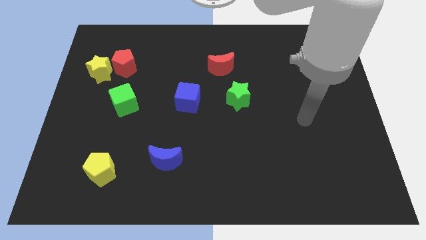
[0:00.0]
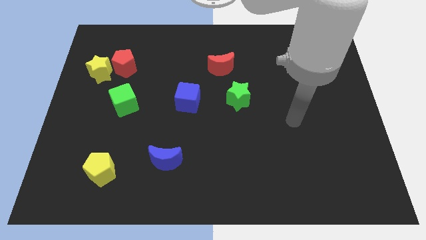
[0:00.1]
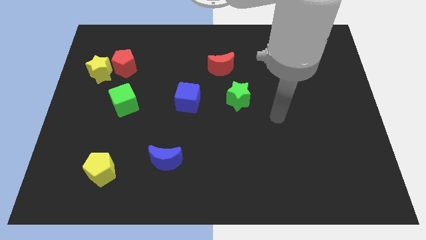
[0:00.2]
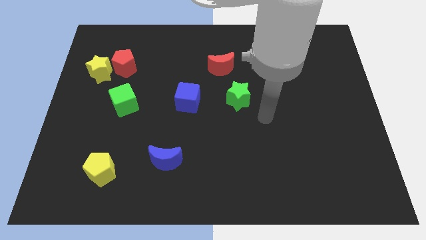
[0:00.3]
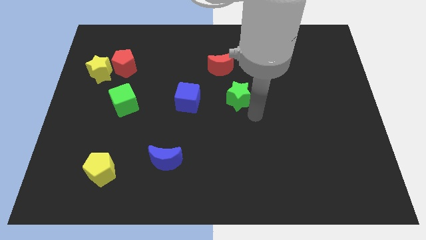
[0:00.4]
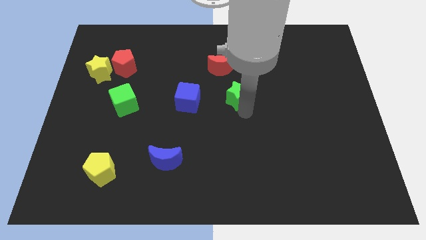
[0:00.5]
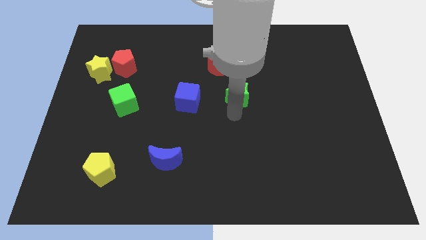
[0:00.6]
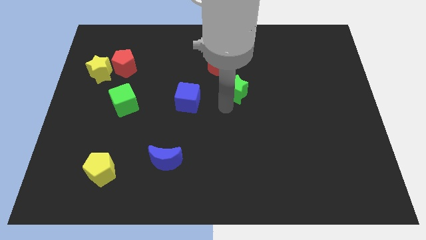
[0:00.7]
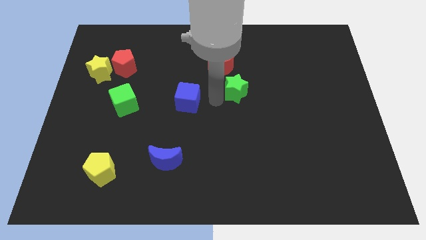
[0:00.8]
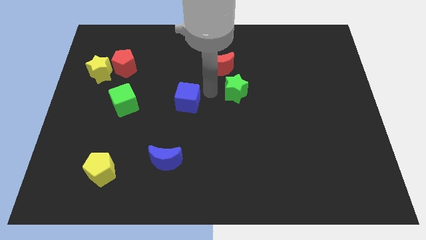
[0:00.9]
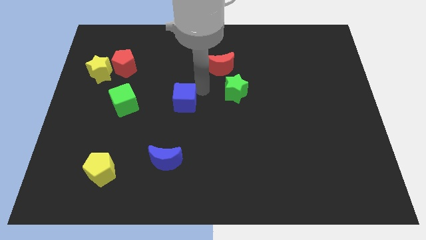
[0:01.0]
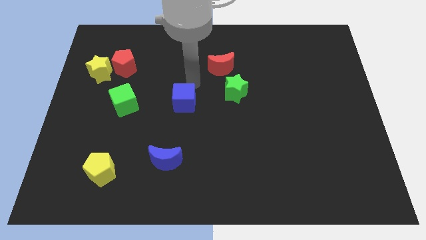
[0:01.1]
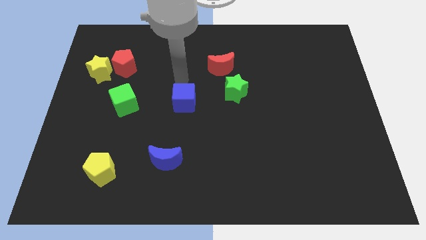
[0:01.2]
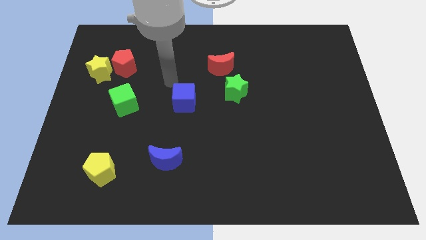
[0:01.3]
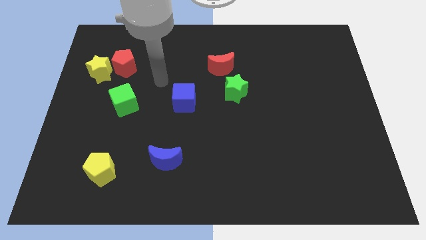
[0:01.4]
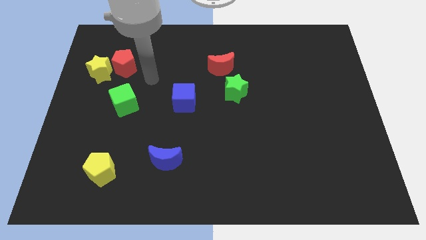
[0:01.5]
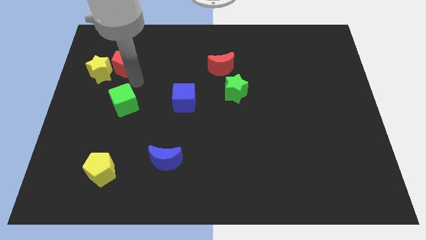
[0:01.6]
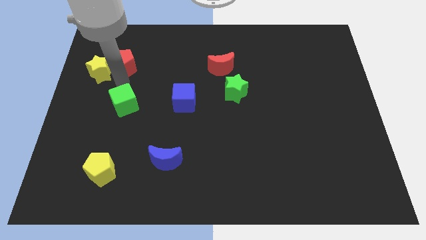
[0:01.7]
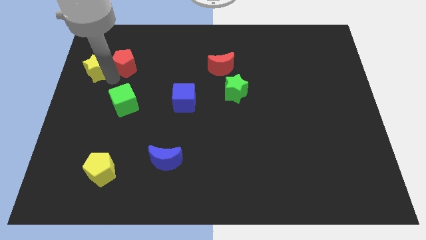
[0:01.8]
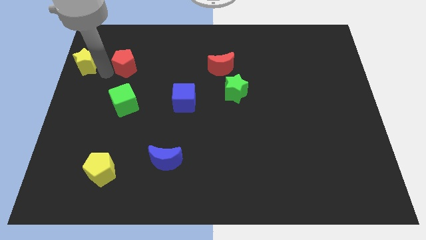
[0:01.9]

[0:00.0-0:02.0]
pull the red pentagon apart from the yellow star

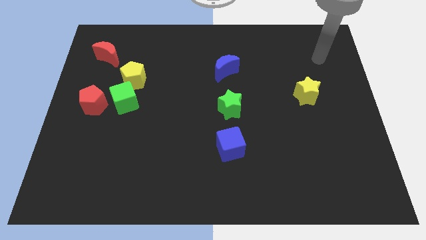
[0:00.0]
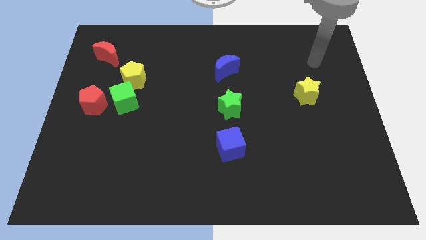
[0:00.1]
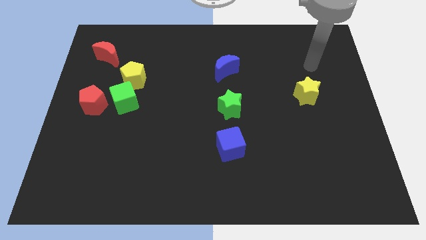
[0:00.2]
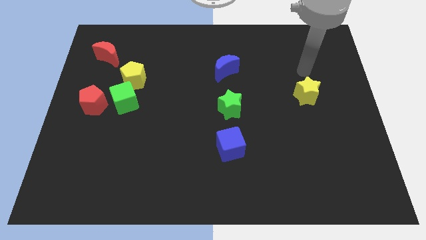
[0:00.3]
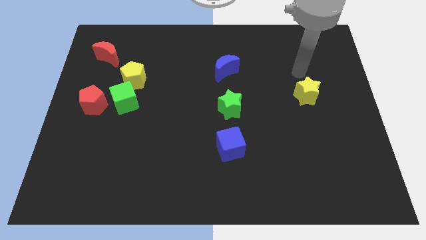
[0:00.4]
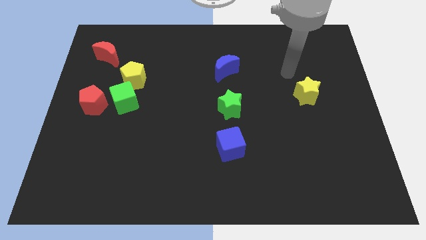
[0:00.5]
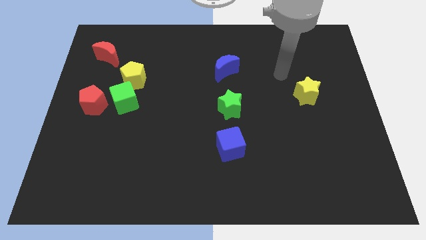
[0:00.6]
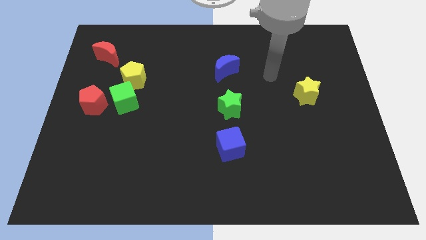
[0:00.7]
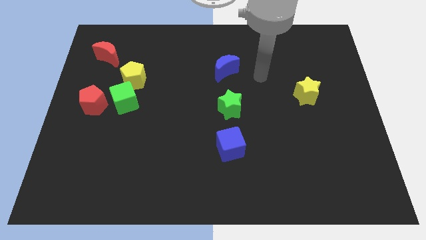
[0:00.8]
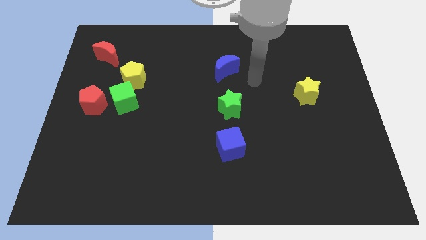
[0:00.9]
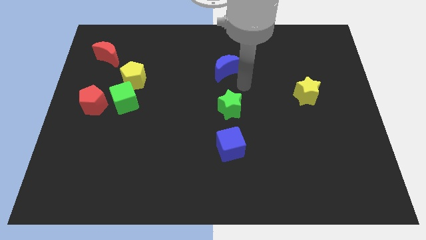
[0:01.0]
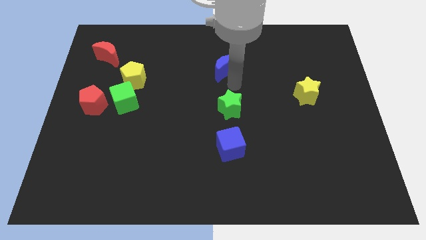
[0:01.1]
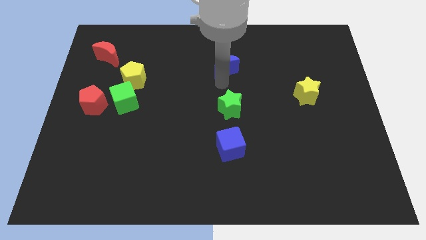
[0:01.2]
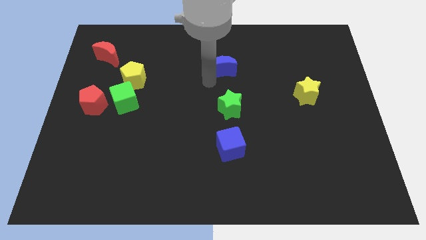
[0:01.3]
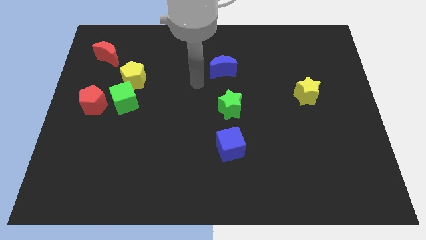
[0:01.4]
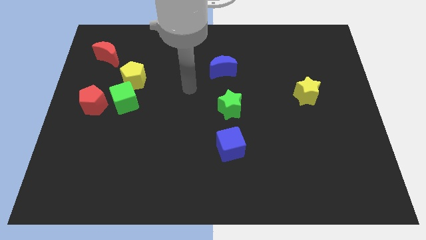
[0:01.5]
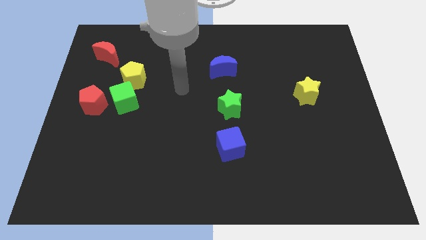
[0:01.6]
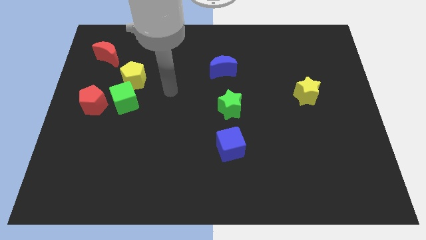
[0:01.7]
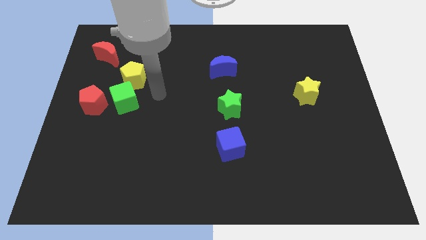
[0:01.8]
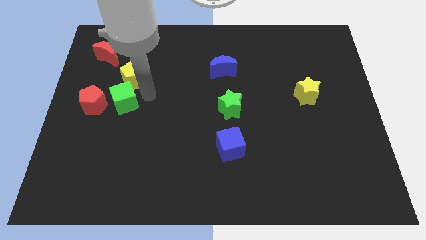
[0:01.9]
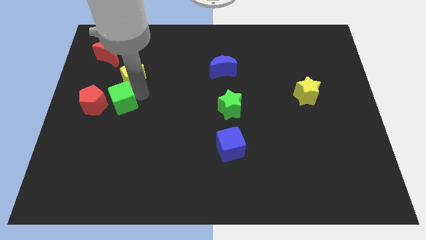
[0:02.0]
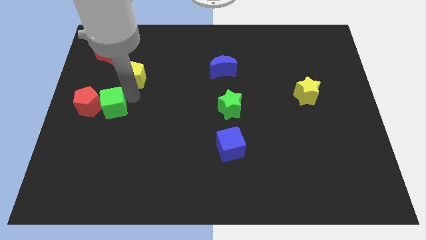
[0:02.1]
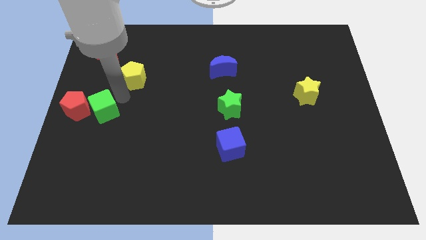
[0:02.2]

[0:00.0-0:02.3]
separate the yellow pentagon from the green cube

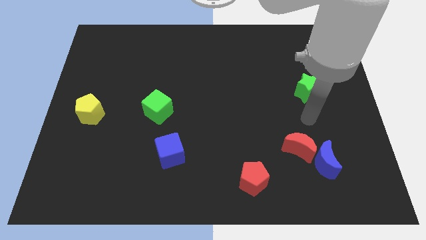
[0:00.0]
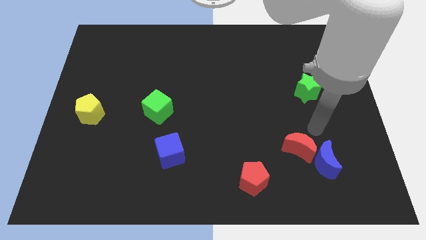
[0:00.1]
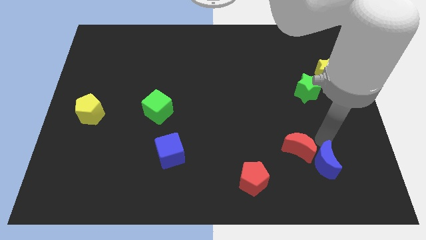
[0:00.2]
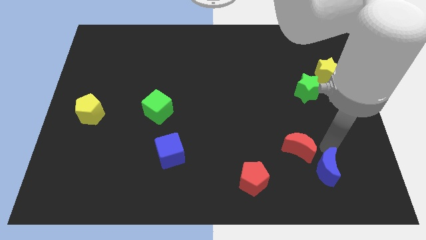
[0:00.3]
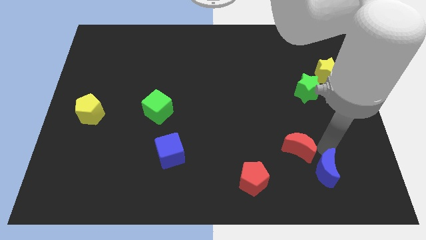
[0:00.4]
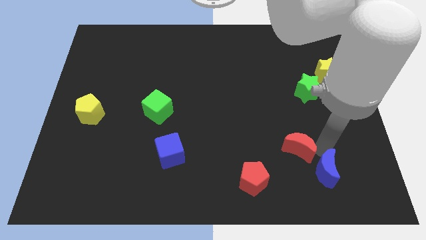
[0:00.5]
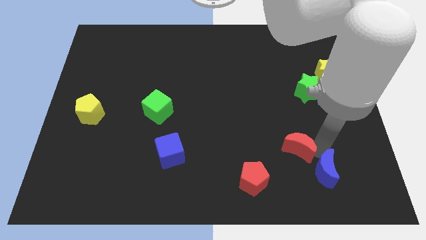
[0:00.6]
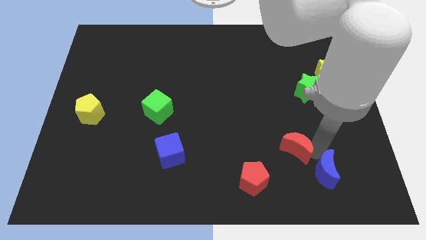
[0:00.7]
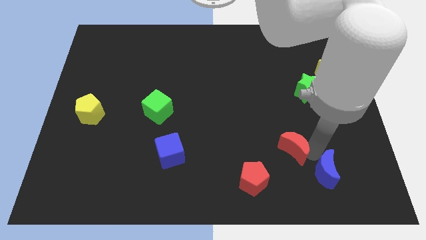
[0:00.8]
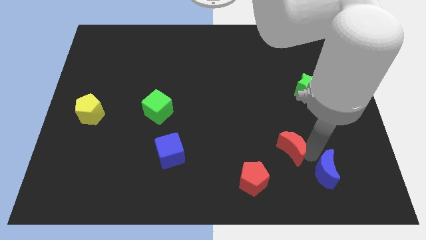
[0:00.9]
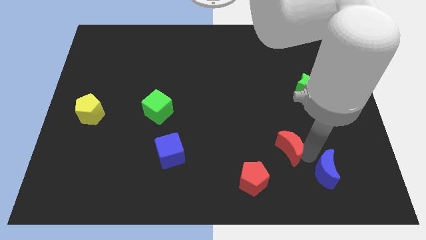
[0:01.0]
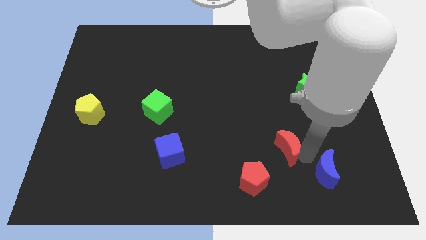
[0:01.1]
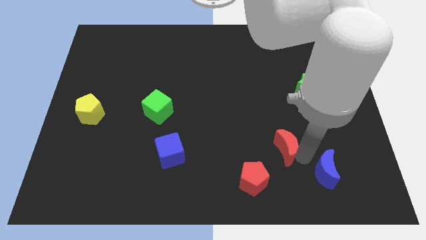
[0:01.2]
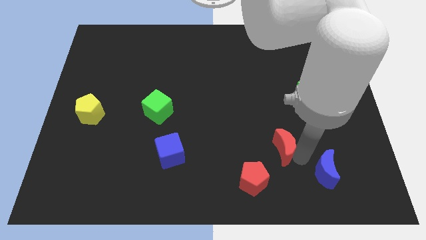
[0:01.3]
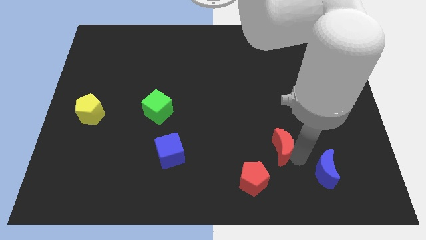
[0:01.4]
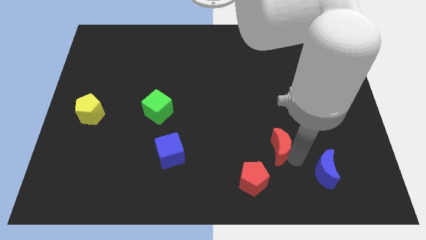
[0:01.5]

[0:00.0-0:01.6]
move the red moon away from the blue moon

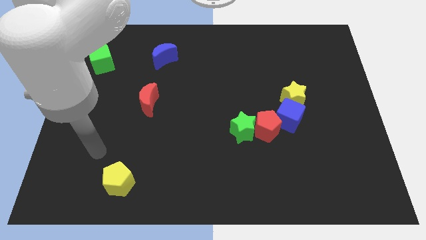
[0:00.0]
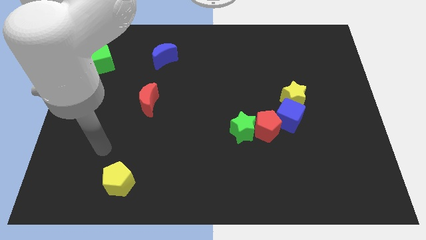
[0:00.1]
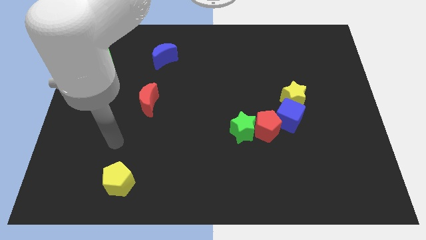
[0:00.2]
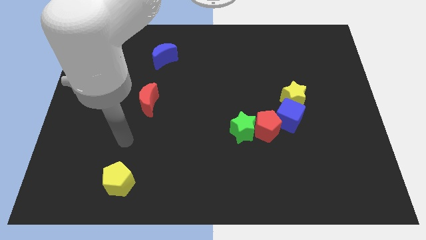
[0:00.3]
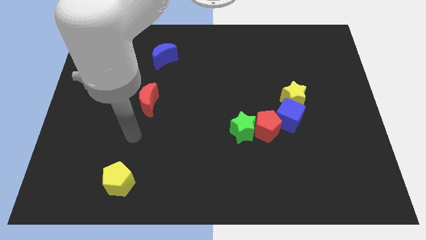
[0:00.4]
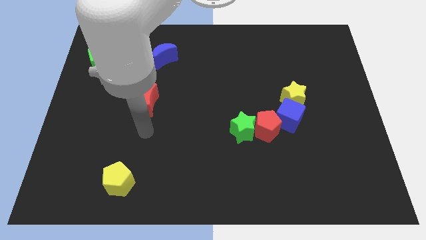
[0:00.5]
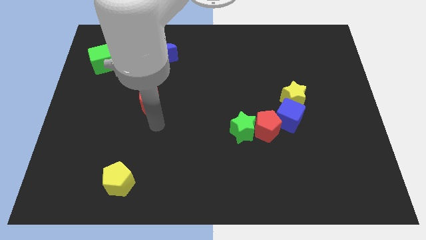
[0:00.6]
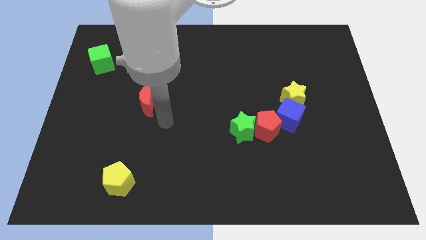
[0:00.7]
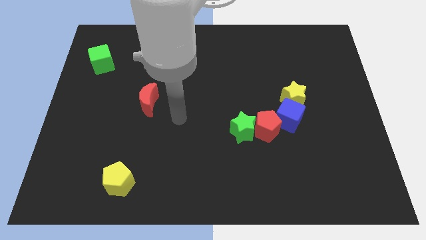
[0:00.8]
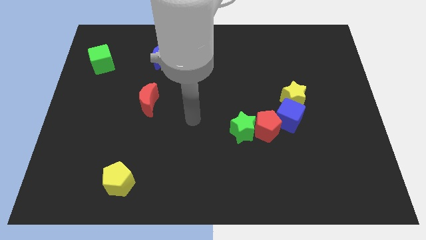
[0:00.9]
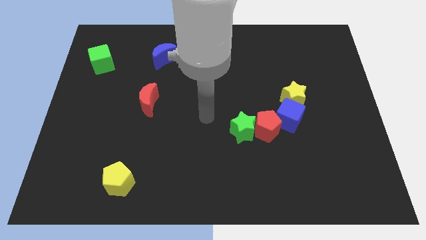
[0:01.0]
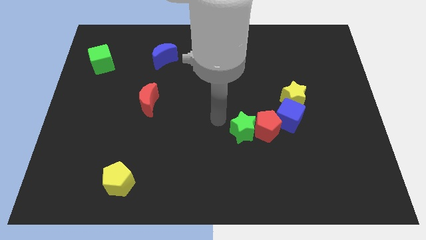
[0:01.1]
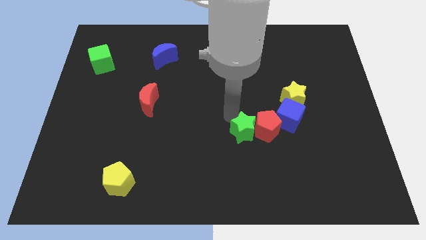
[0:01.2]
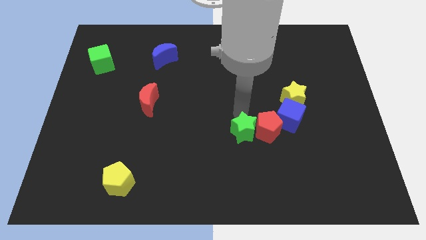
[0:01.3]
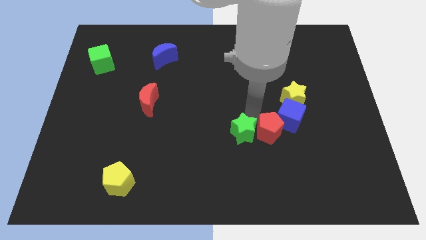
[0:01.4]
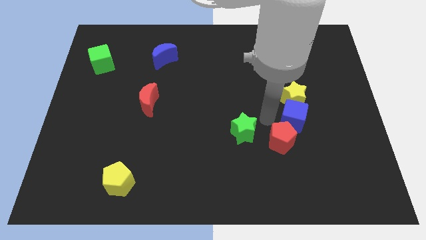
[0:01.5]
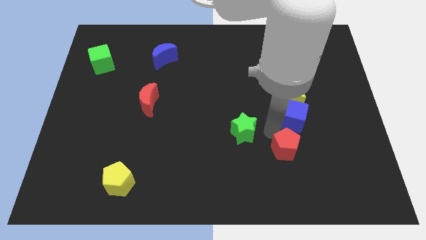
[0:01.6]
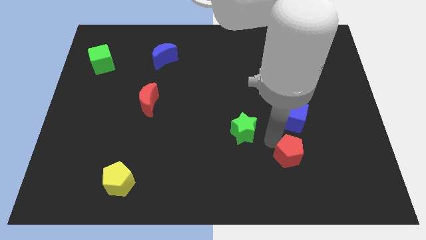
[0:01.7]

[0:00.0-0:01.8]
separate the green star from the red pentagon

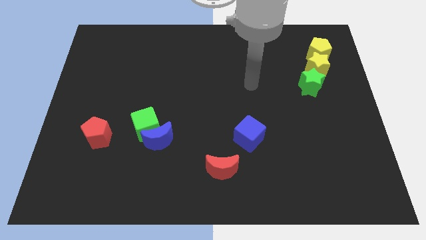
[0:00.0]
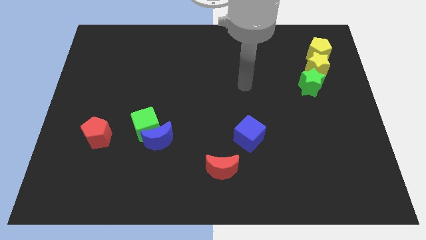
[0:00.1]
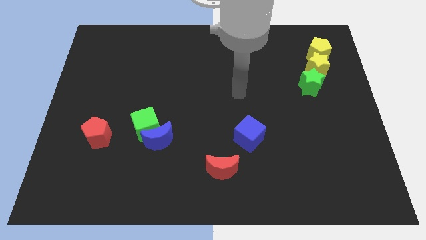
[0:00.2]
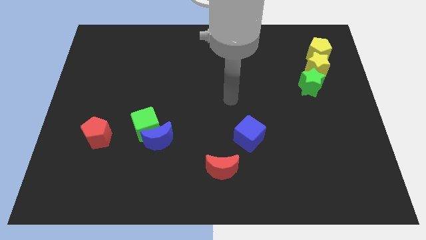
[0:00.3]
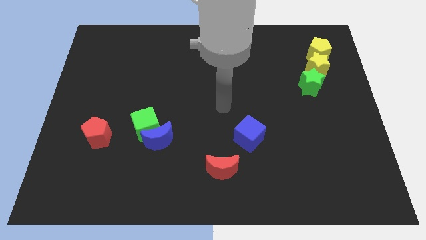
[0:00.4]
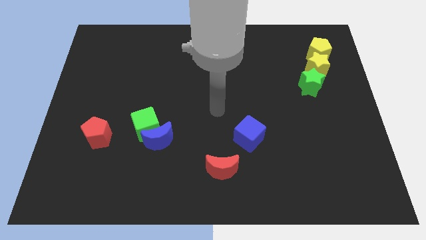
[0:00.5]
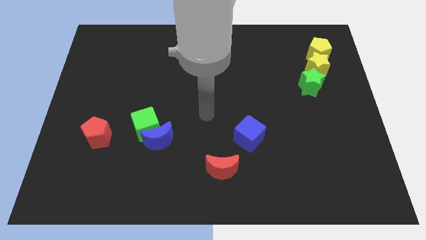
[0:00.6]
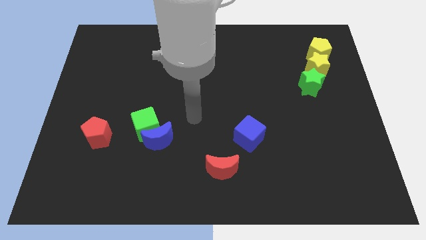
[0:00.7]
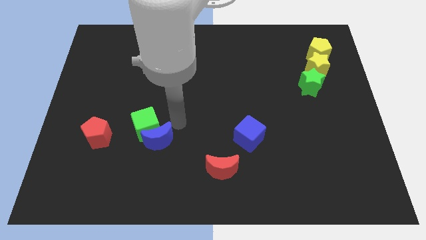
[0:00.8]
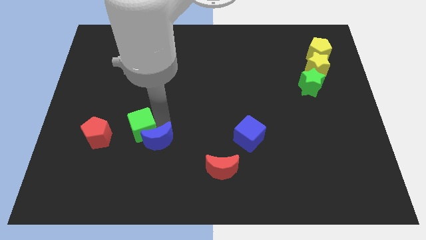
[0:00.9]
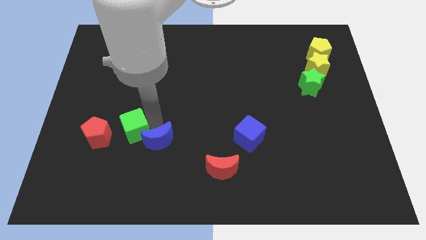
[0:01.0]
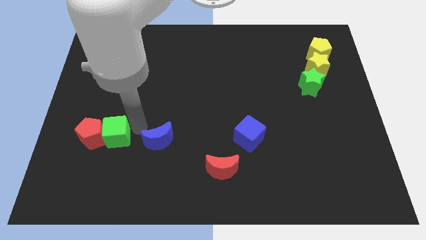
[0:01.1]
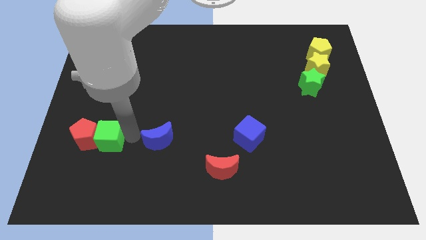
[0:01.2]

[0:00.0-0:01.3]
pull the blue moon apart from the green cube

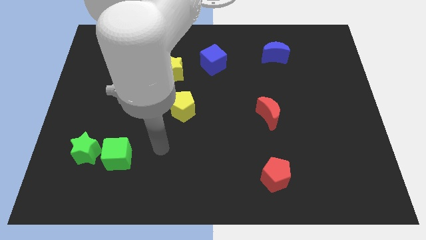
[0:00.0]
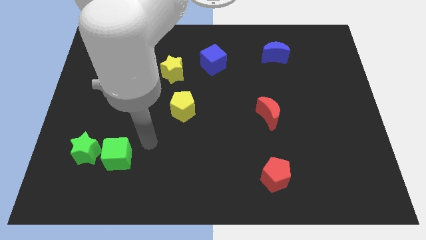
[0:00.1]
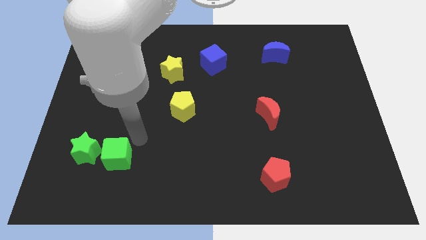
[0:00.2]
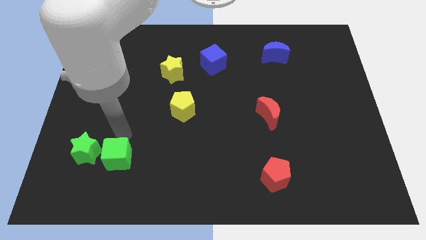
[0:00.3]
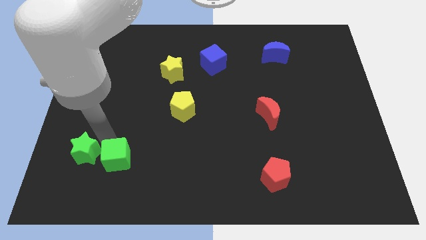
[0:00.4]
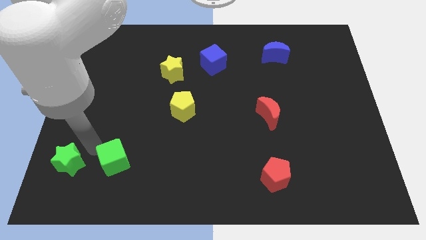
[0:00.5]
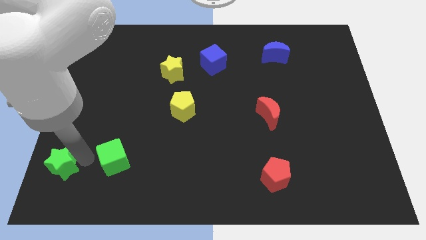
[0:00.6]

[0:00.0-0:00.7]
move the green cube away from the green star
